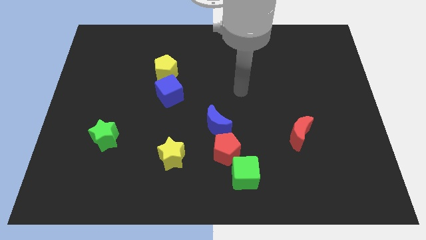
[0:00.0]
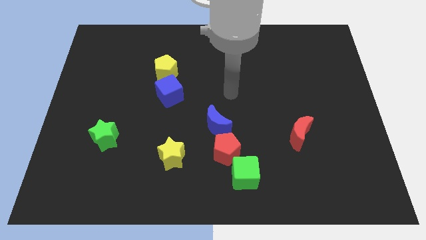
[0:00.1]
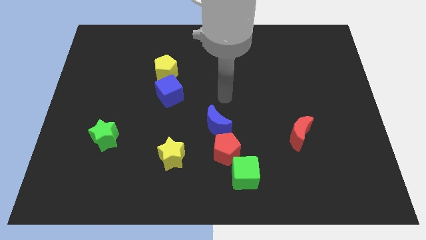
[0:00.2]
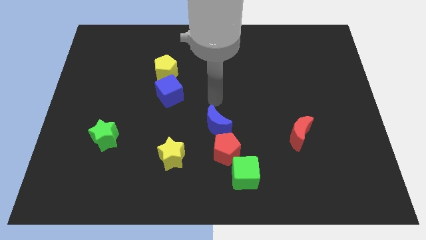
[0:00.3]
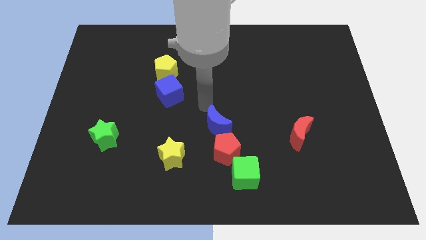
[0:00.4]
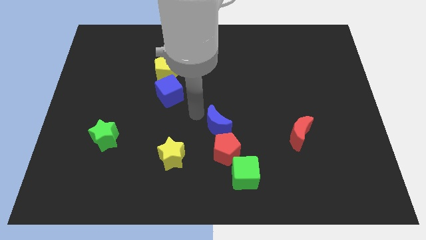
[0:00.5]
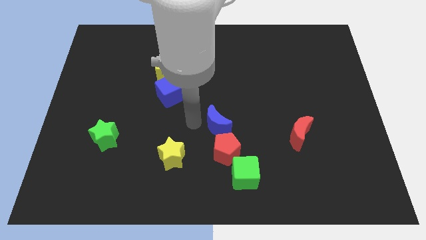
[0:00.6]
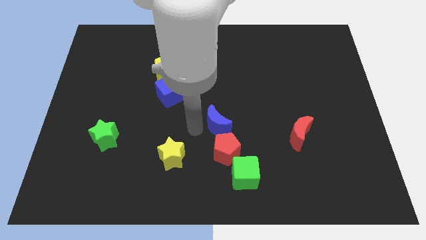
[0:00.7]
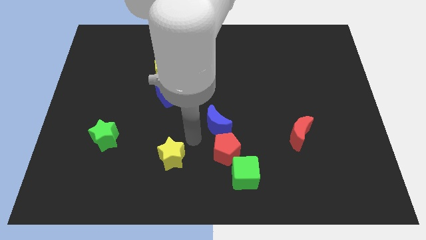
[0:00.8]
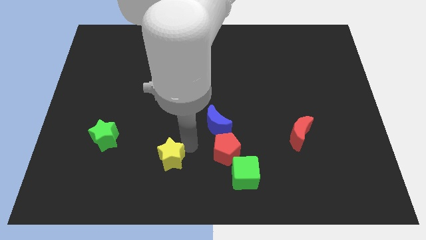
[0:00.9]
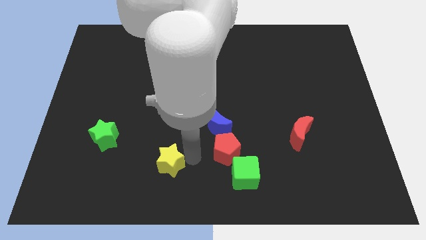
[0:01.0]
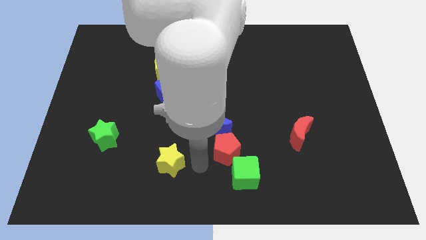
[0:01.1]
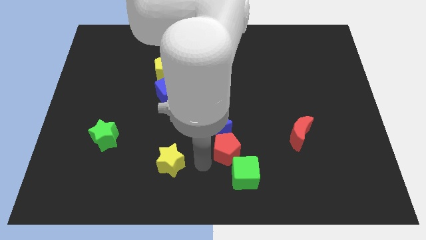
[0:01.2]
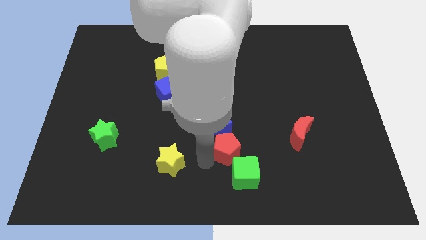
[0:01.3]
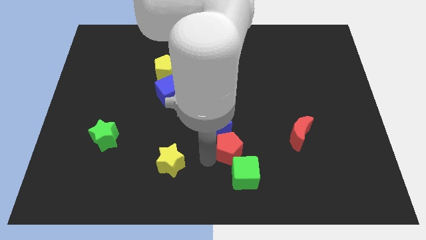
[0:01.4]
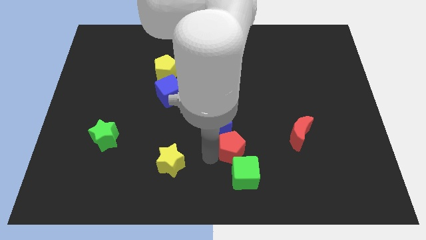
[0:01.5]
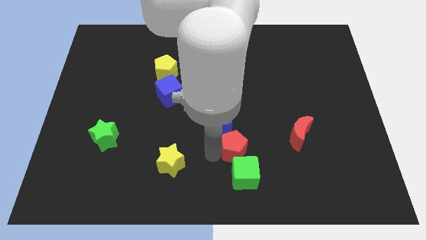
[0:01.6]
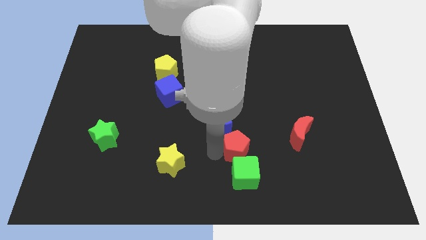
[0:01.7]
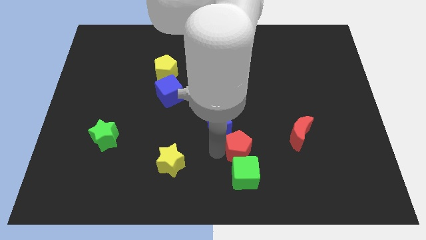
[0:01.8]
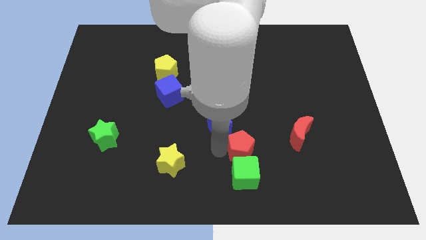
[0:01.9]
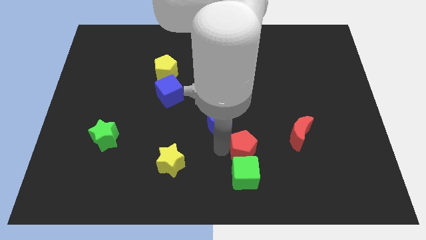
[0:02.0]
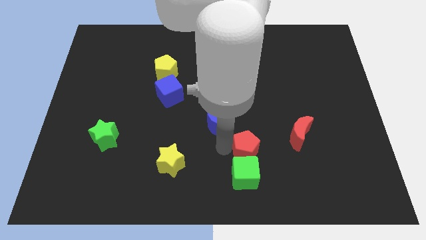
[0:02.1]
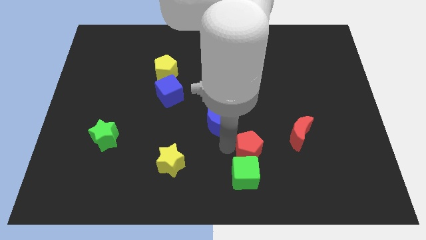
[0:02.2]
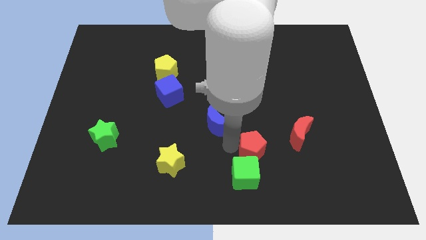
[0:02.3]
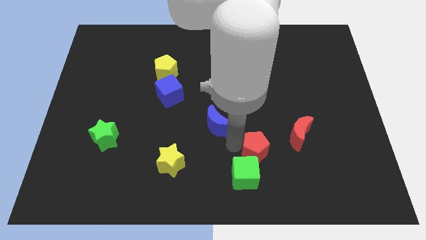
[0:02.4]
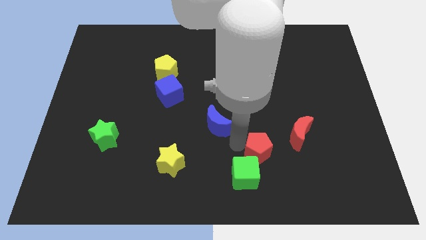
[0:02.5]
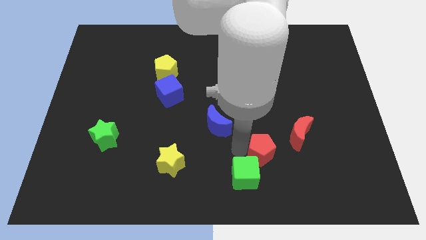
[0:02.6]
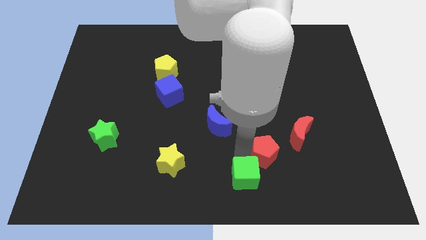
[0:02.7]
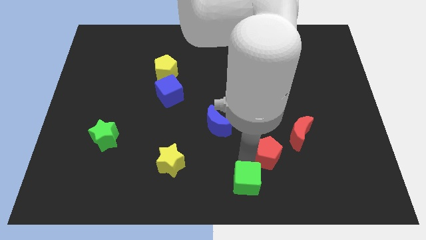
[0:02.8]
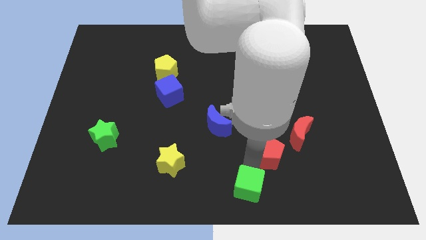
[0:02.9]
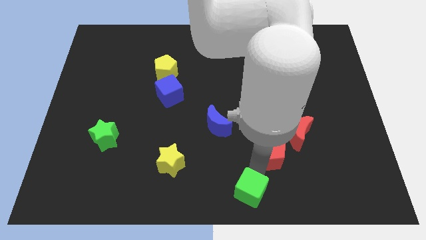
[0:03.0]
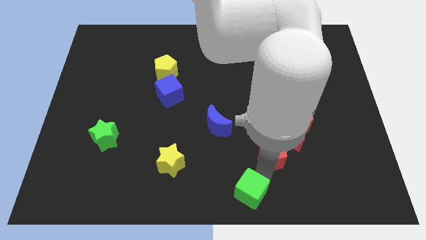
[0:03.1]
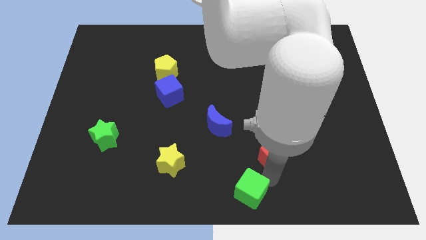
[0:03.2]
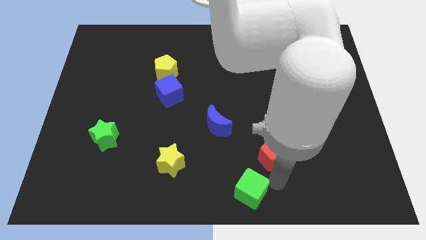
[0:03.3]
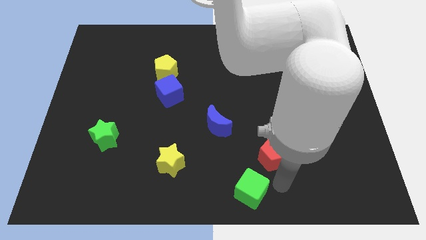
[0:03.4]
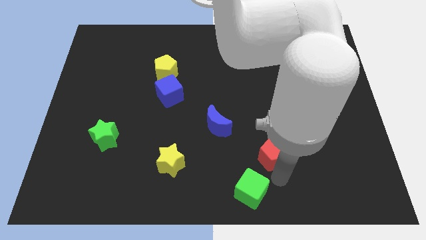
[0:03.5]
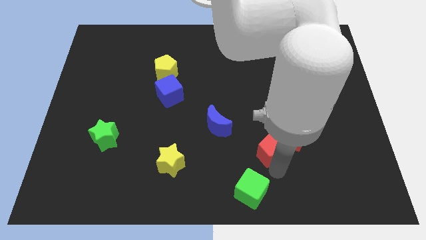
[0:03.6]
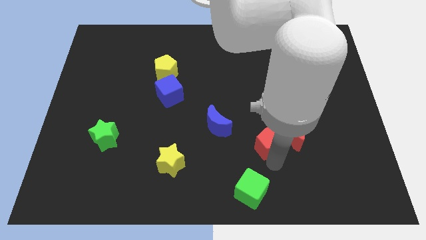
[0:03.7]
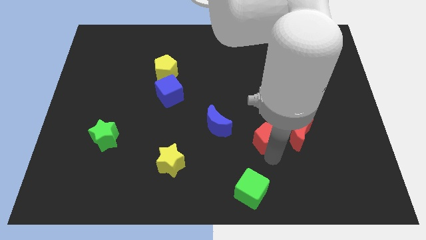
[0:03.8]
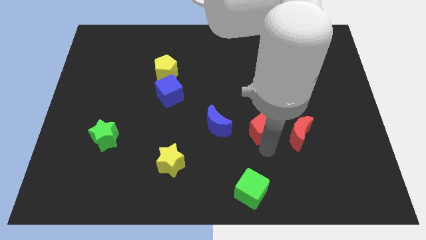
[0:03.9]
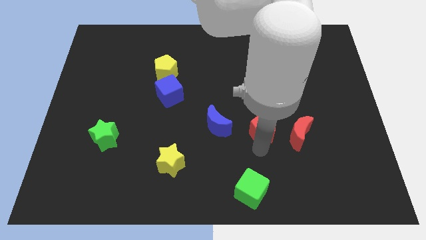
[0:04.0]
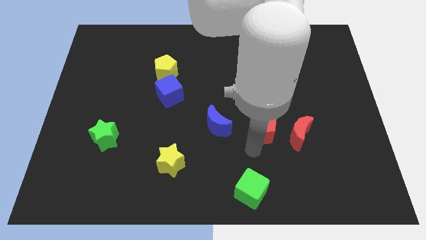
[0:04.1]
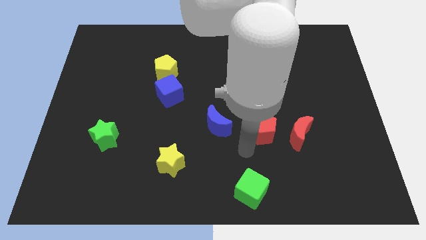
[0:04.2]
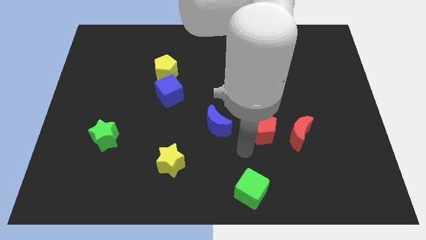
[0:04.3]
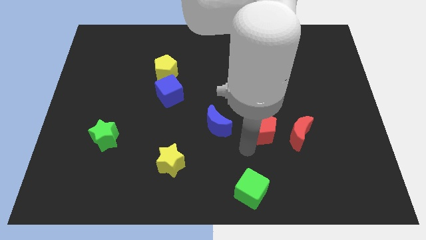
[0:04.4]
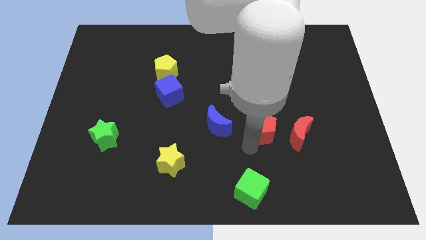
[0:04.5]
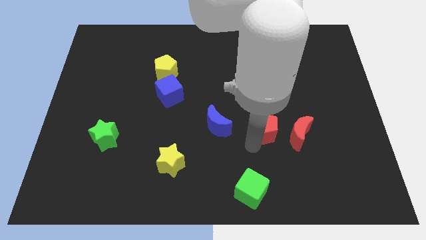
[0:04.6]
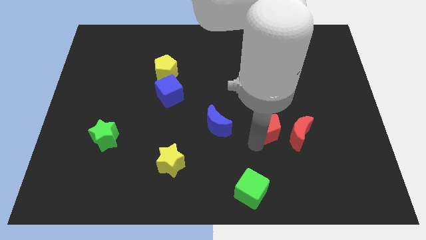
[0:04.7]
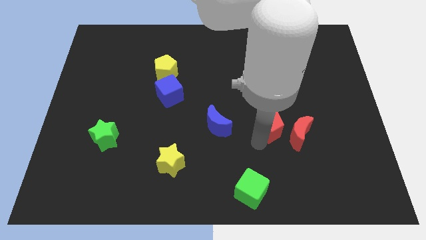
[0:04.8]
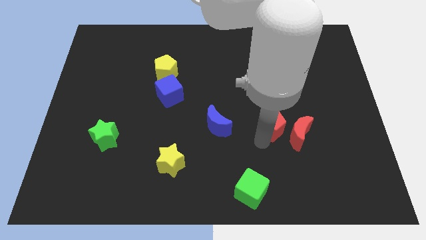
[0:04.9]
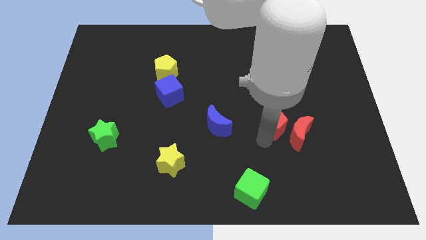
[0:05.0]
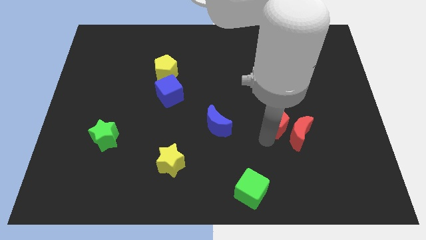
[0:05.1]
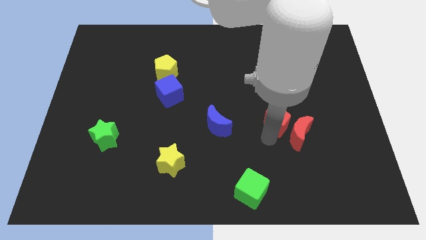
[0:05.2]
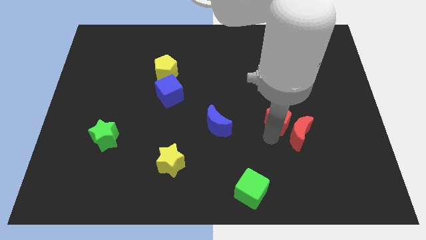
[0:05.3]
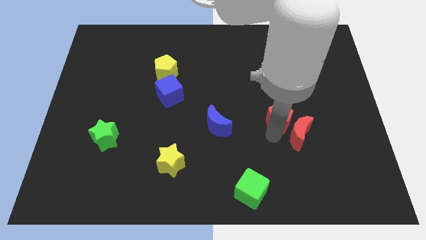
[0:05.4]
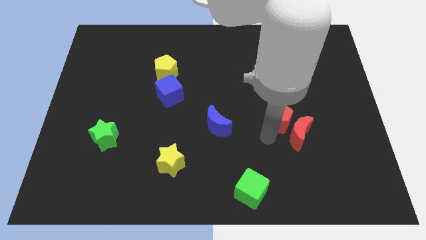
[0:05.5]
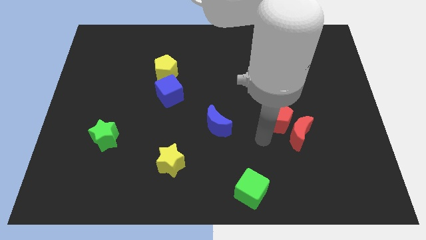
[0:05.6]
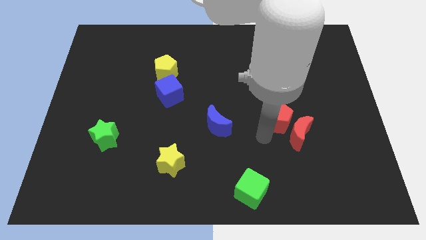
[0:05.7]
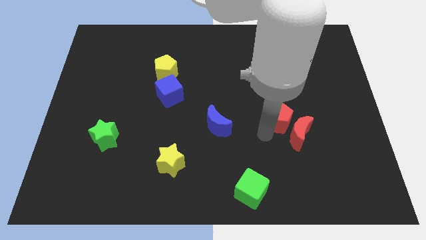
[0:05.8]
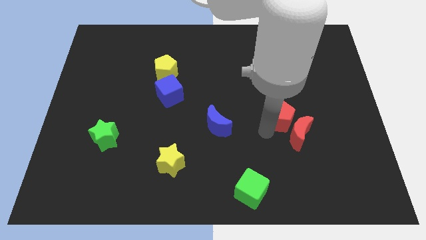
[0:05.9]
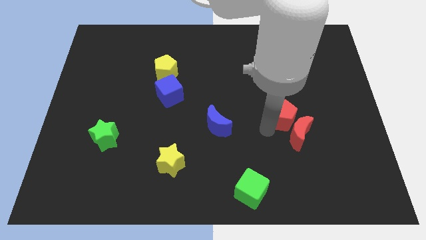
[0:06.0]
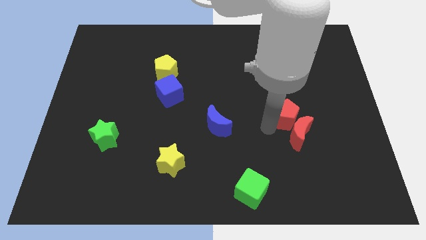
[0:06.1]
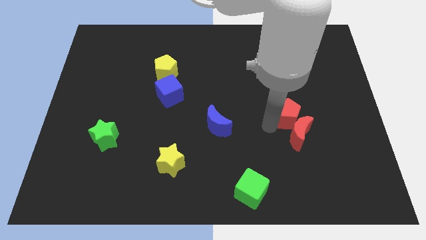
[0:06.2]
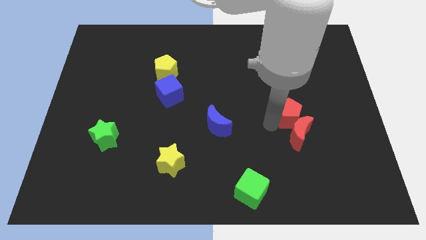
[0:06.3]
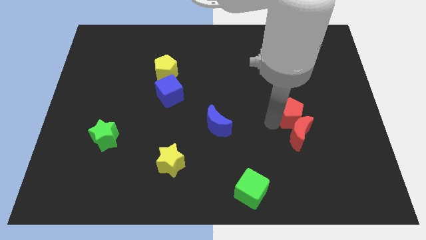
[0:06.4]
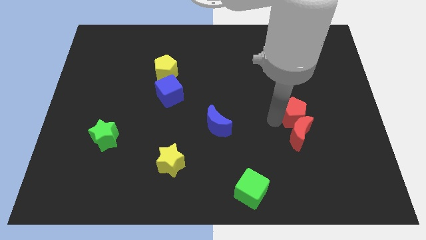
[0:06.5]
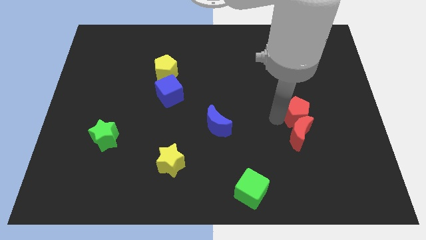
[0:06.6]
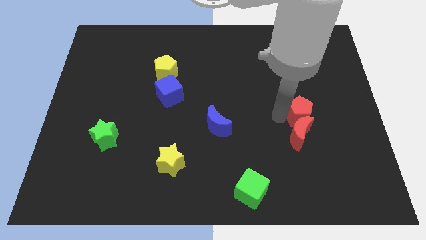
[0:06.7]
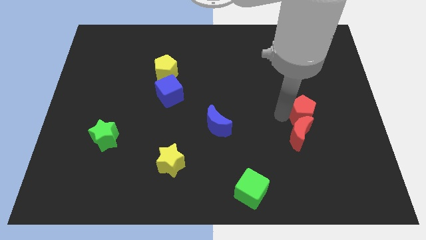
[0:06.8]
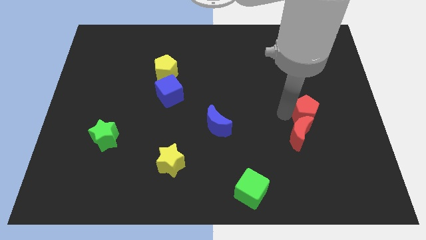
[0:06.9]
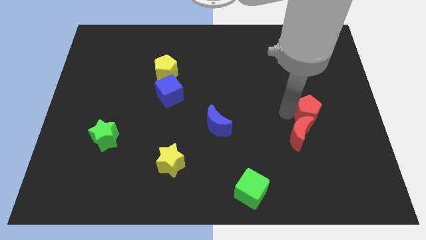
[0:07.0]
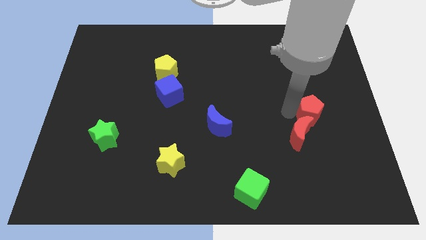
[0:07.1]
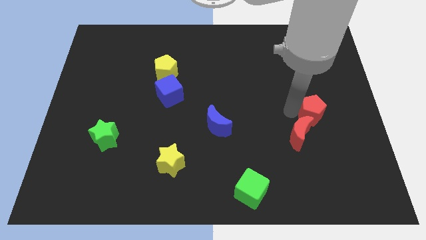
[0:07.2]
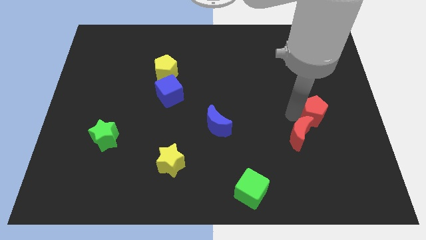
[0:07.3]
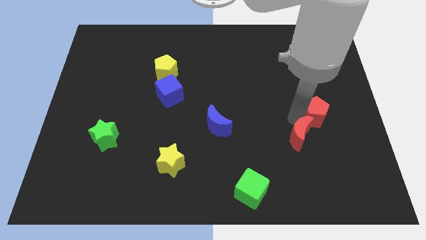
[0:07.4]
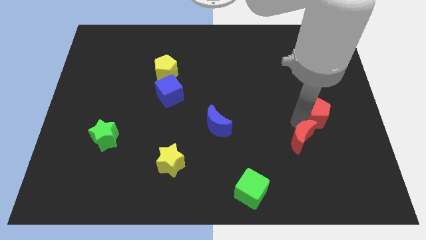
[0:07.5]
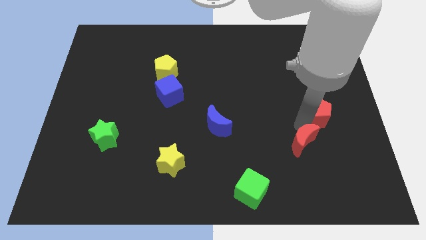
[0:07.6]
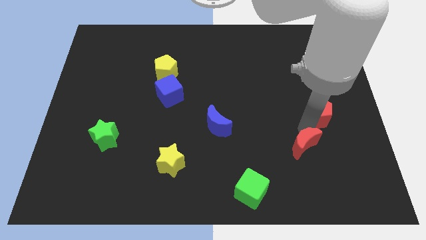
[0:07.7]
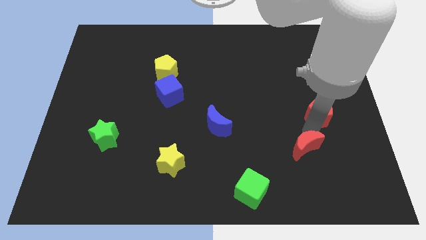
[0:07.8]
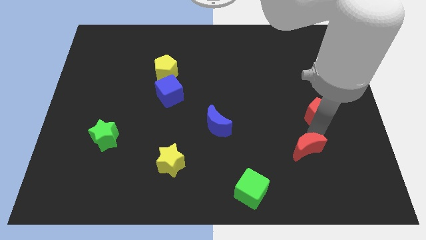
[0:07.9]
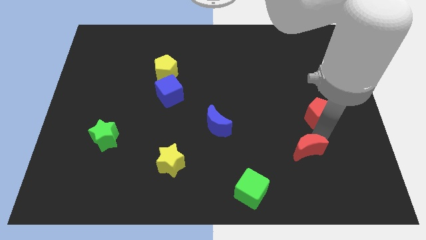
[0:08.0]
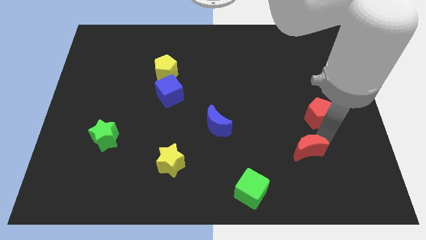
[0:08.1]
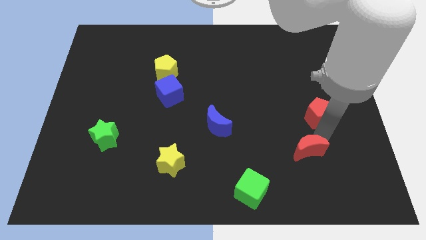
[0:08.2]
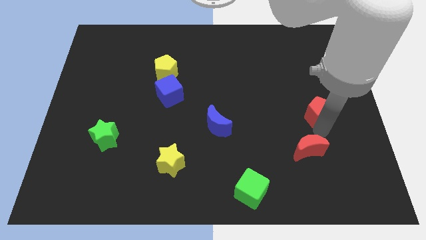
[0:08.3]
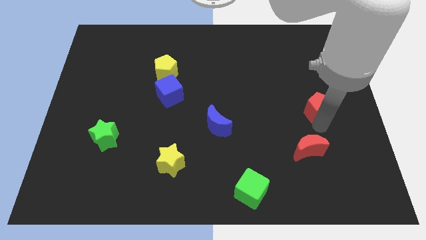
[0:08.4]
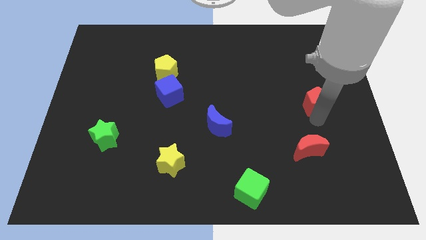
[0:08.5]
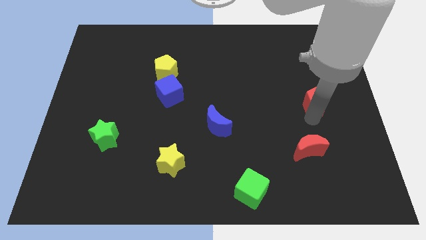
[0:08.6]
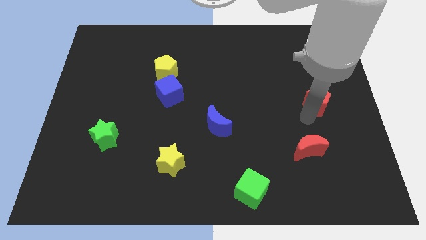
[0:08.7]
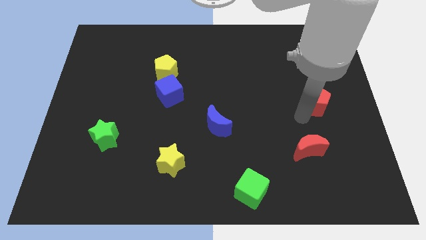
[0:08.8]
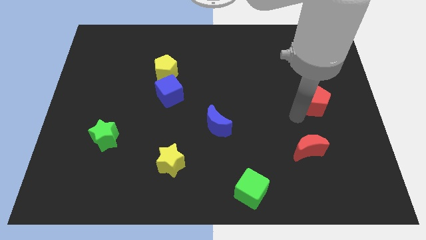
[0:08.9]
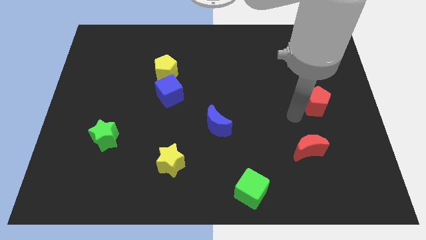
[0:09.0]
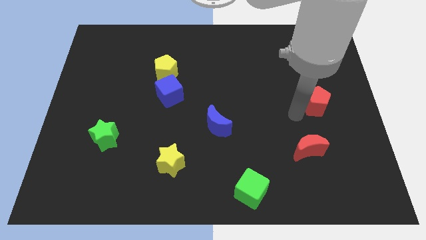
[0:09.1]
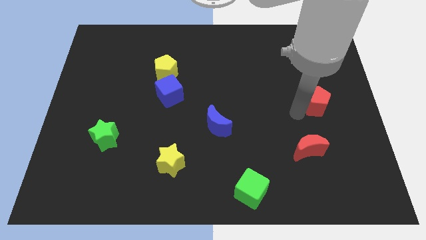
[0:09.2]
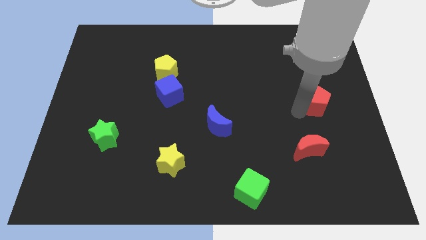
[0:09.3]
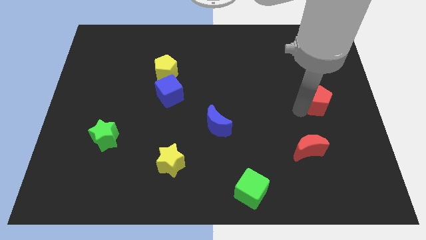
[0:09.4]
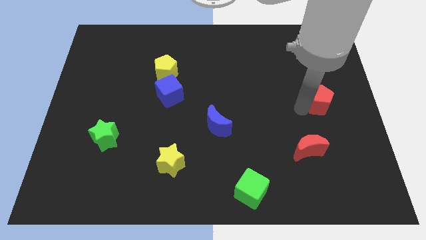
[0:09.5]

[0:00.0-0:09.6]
put the red pentagon to the right side of the board
